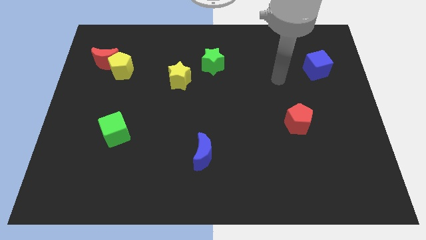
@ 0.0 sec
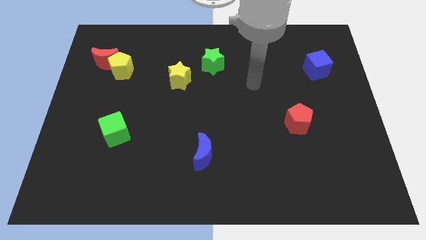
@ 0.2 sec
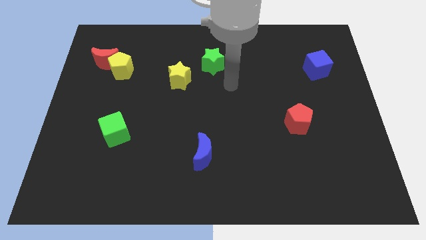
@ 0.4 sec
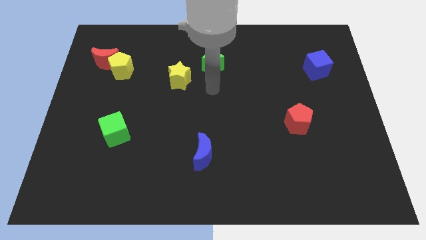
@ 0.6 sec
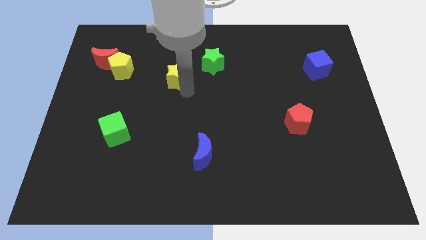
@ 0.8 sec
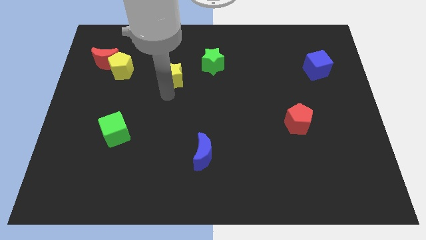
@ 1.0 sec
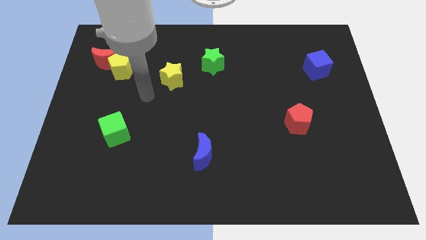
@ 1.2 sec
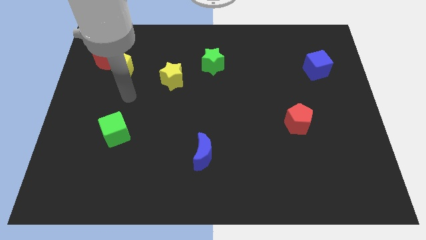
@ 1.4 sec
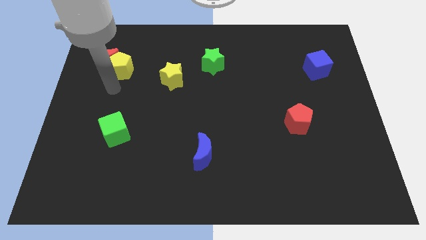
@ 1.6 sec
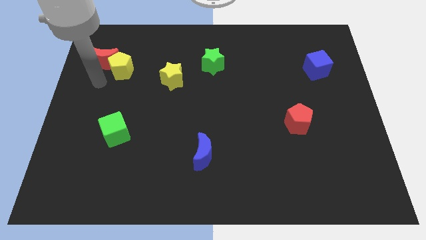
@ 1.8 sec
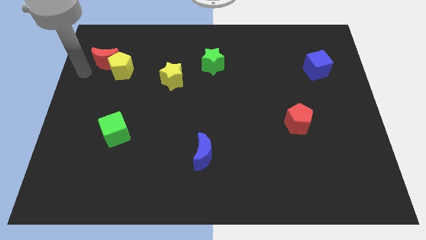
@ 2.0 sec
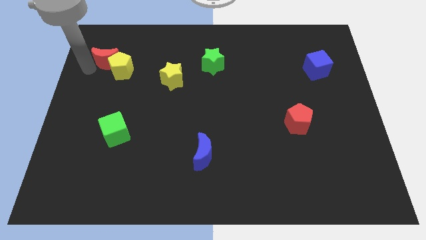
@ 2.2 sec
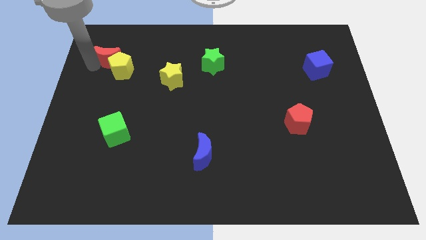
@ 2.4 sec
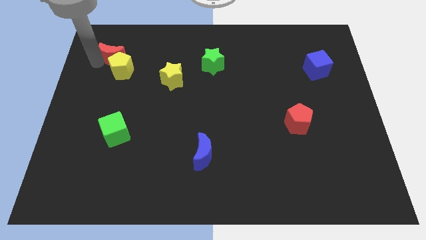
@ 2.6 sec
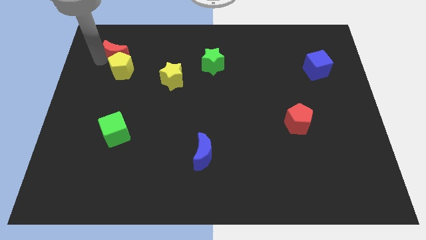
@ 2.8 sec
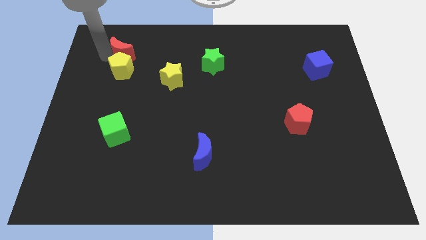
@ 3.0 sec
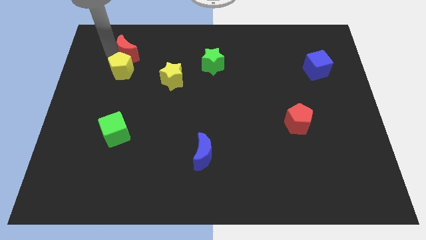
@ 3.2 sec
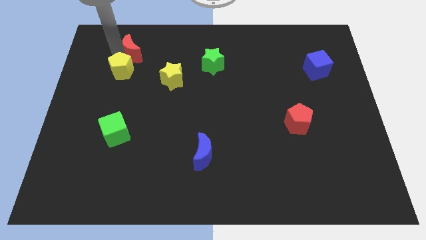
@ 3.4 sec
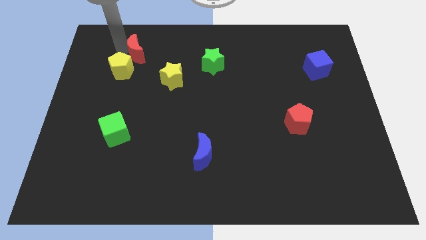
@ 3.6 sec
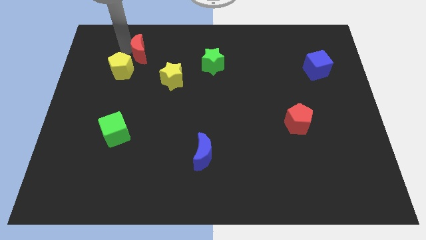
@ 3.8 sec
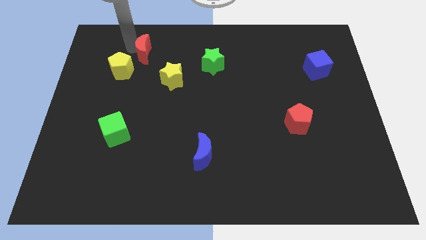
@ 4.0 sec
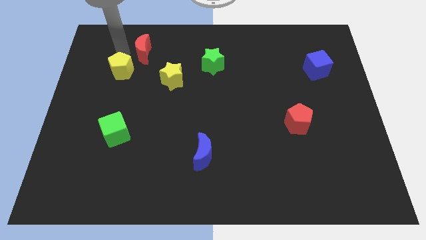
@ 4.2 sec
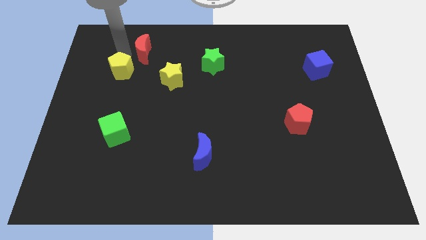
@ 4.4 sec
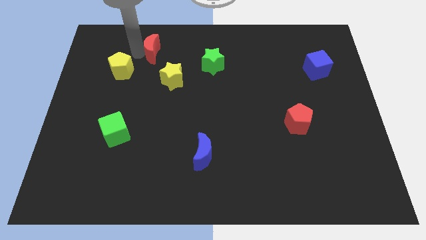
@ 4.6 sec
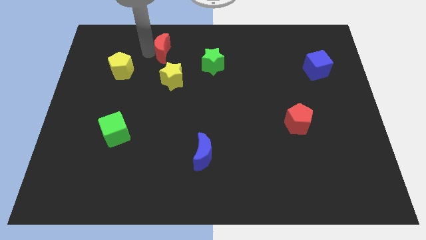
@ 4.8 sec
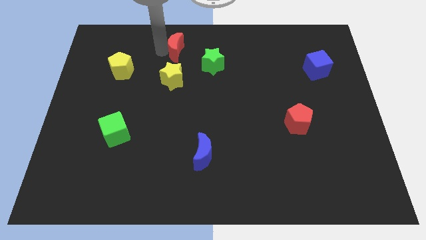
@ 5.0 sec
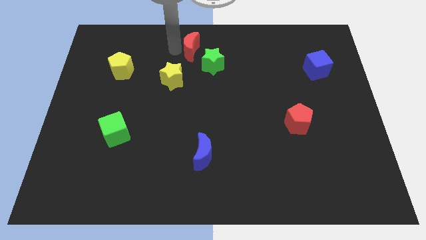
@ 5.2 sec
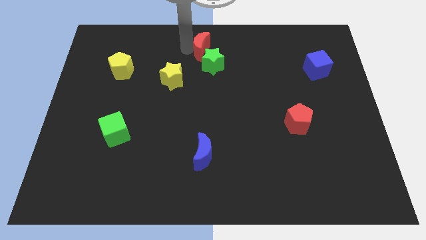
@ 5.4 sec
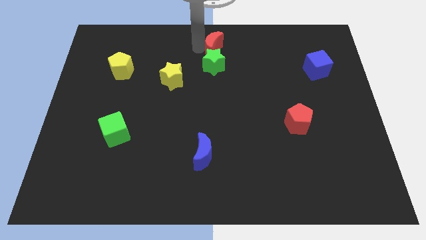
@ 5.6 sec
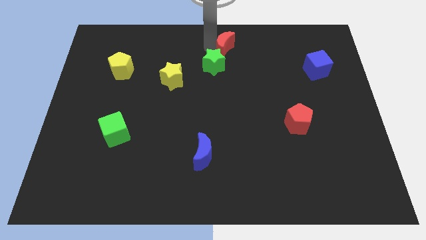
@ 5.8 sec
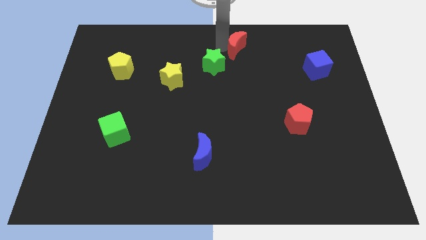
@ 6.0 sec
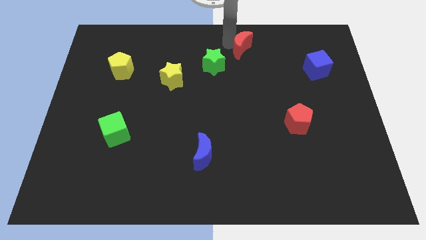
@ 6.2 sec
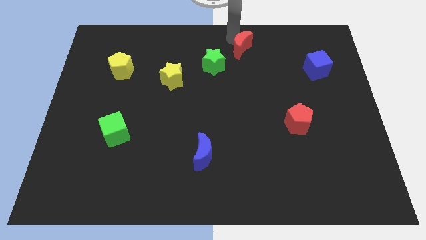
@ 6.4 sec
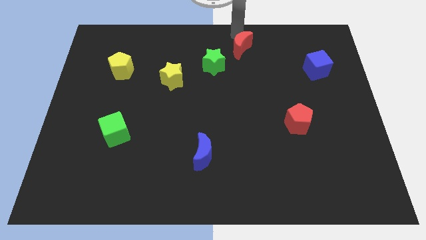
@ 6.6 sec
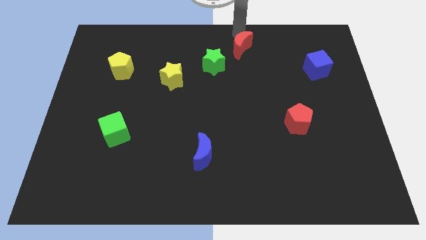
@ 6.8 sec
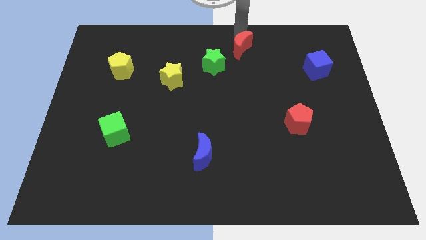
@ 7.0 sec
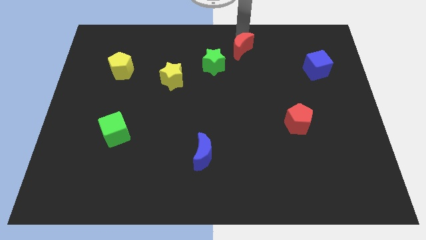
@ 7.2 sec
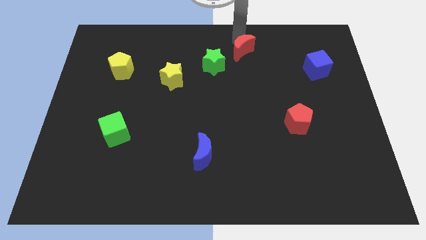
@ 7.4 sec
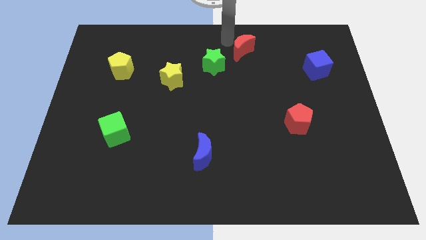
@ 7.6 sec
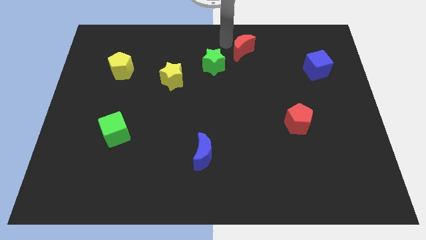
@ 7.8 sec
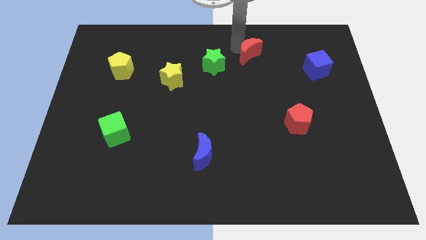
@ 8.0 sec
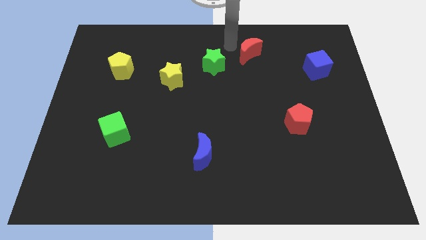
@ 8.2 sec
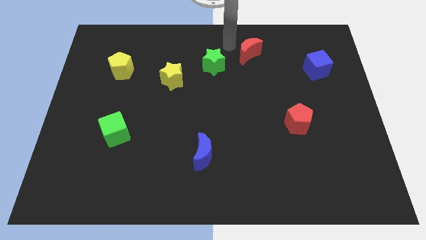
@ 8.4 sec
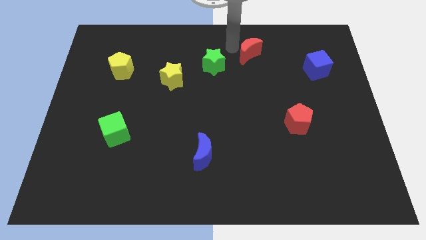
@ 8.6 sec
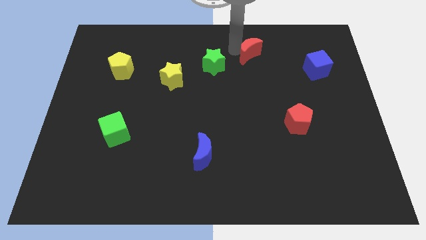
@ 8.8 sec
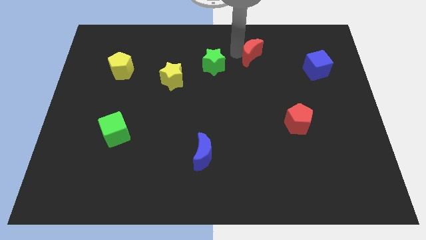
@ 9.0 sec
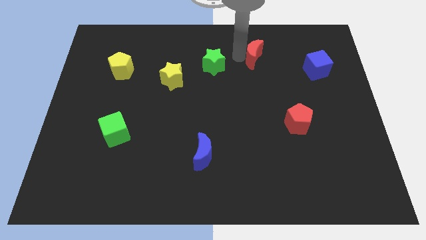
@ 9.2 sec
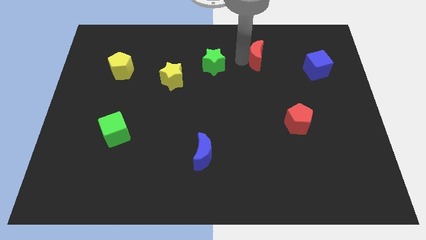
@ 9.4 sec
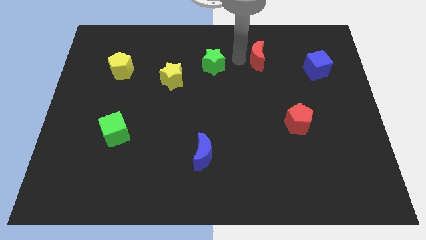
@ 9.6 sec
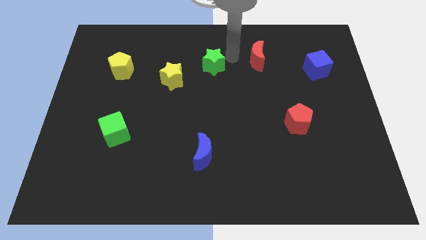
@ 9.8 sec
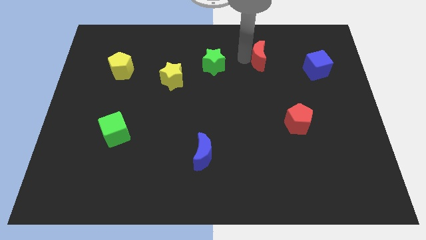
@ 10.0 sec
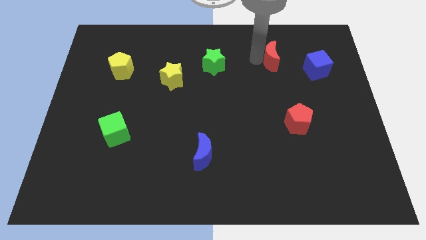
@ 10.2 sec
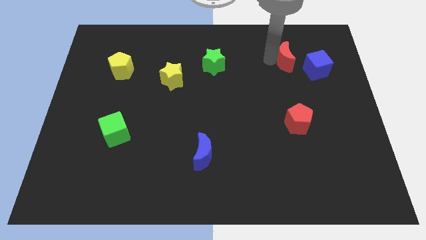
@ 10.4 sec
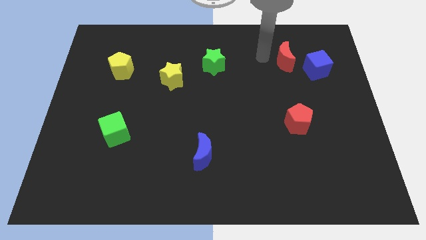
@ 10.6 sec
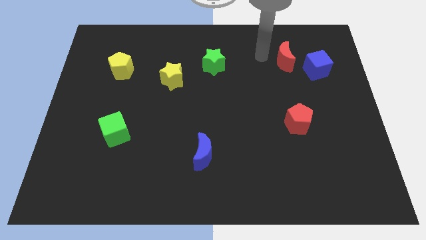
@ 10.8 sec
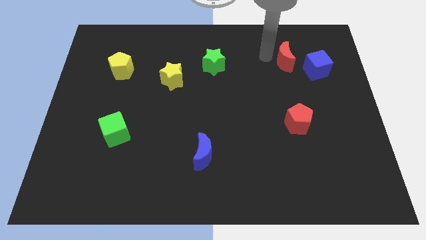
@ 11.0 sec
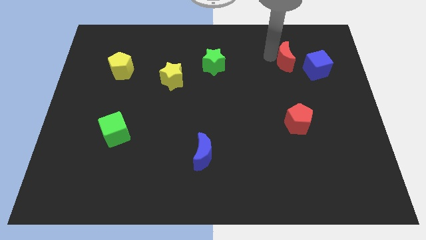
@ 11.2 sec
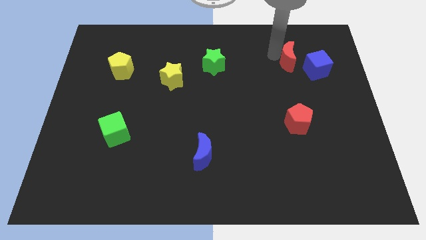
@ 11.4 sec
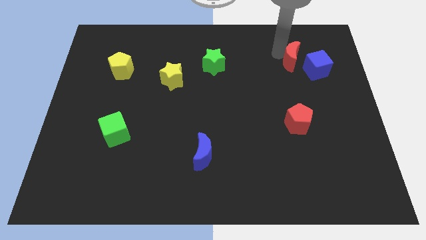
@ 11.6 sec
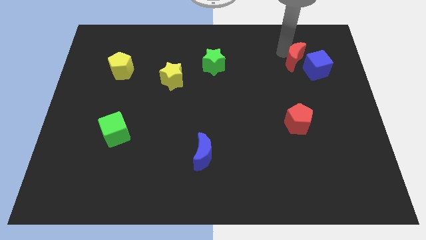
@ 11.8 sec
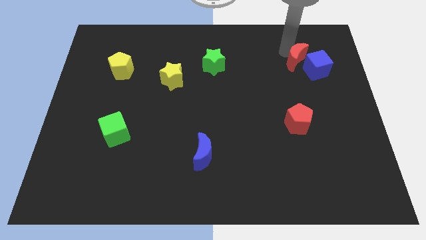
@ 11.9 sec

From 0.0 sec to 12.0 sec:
move the red moon towards the blue cube

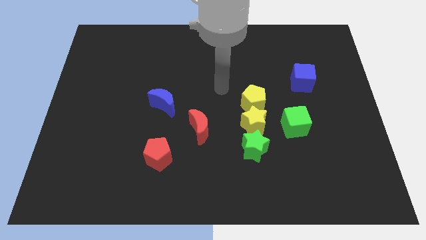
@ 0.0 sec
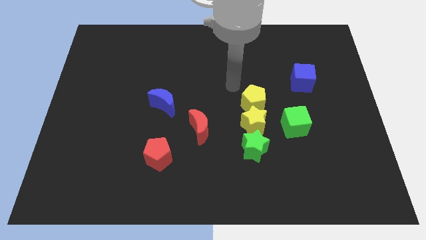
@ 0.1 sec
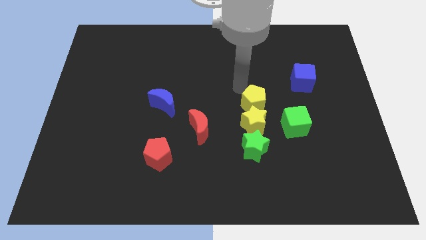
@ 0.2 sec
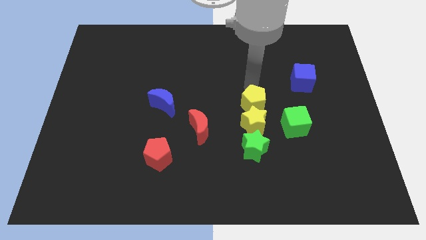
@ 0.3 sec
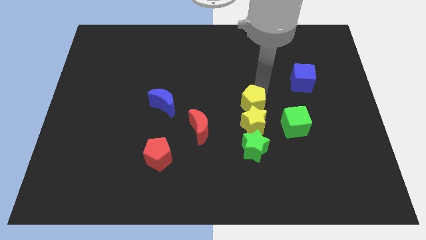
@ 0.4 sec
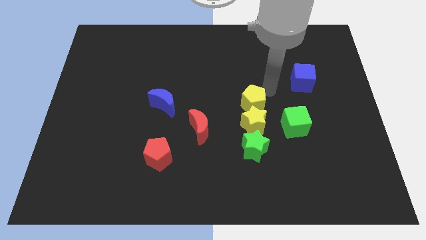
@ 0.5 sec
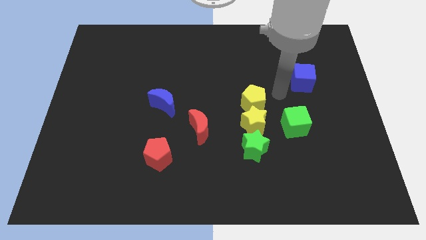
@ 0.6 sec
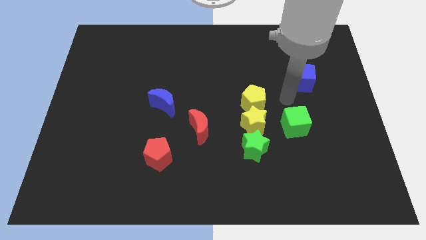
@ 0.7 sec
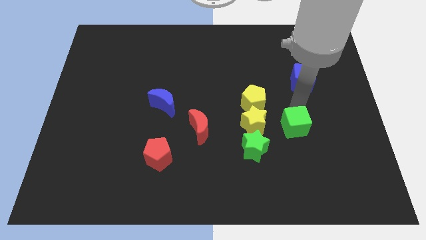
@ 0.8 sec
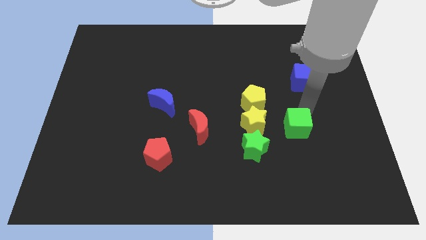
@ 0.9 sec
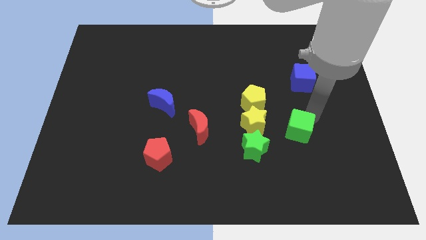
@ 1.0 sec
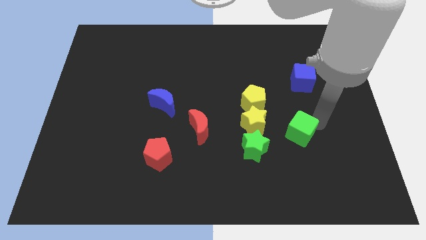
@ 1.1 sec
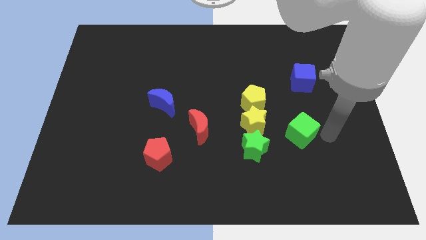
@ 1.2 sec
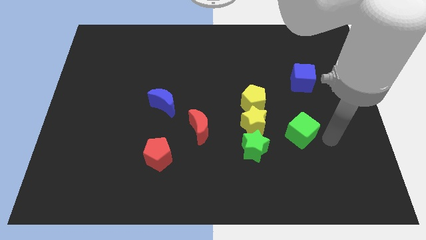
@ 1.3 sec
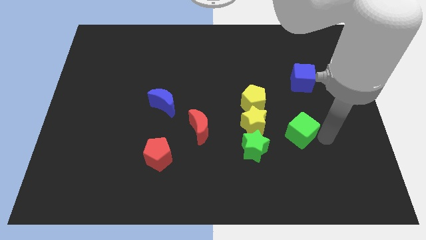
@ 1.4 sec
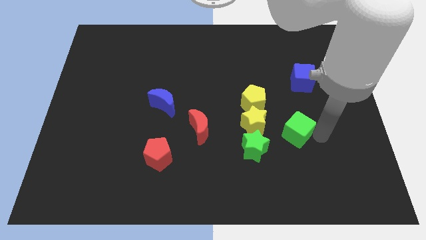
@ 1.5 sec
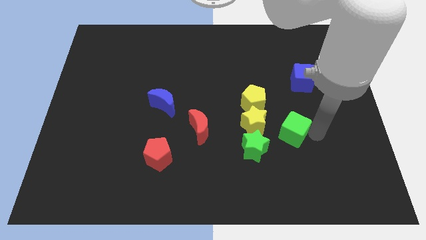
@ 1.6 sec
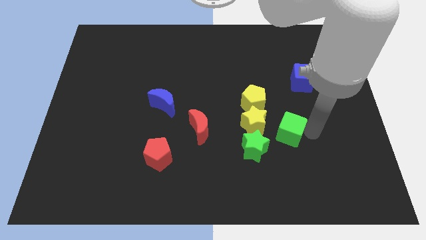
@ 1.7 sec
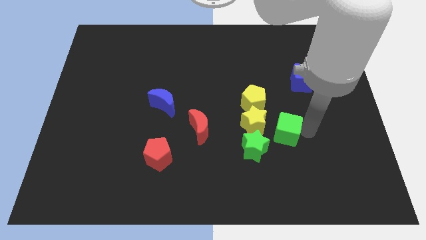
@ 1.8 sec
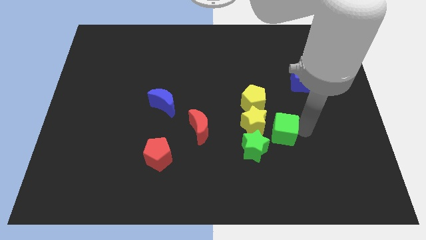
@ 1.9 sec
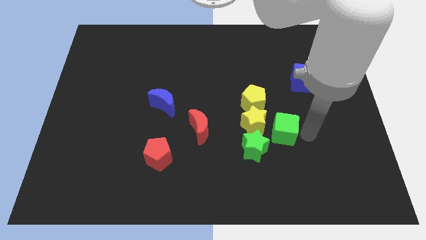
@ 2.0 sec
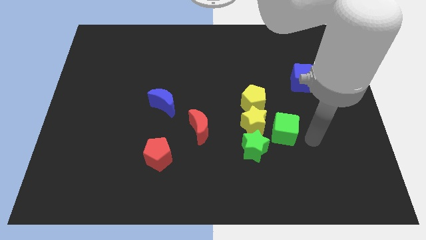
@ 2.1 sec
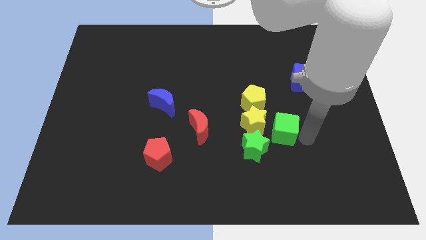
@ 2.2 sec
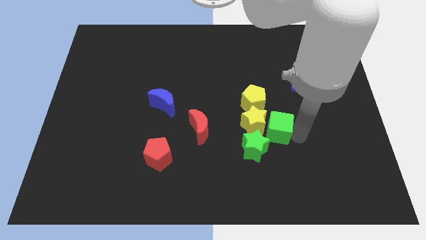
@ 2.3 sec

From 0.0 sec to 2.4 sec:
slide the green cube towards the yellow star
